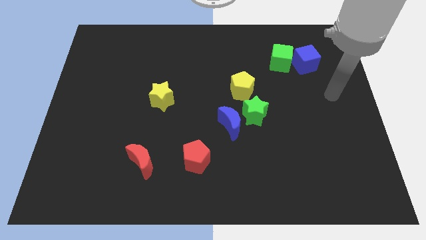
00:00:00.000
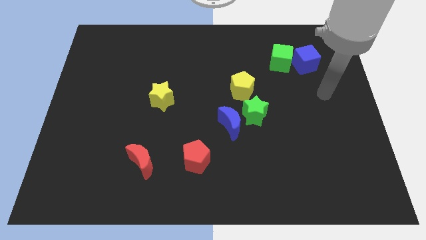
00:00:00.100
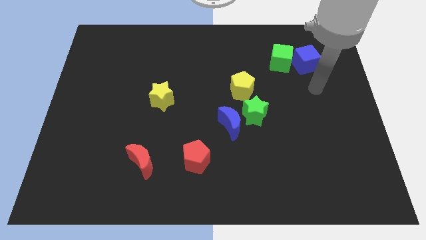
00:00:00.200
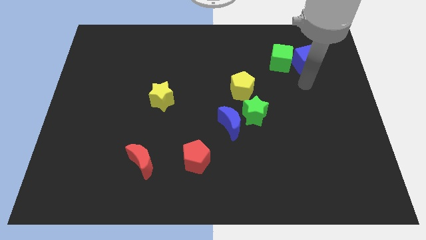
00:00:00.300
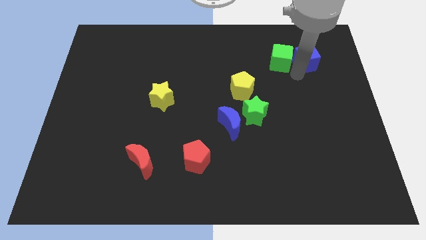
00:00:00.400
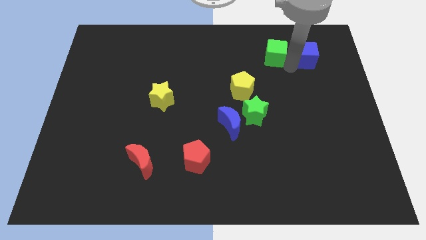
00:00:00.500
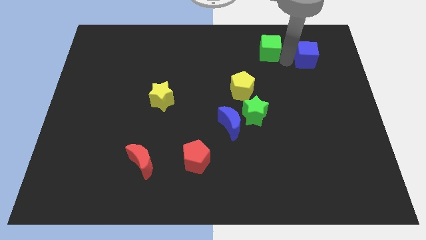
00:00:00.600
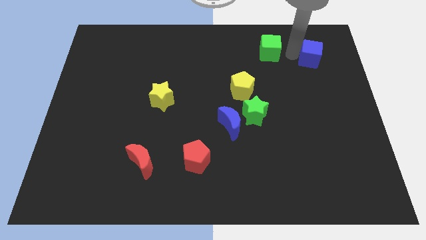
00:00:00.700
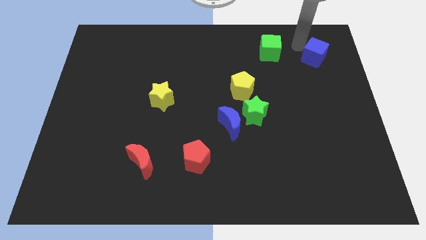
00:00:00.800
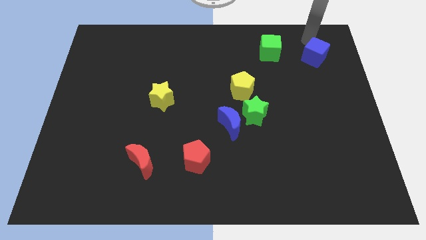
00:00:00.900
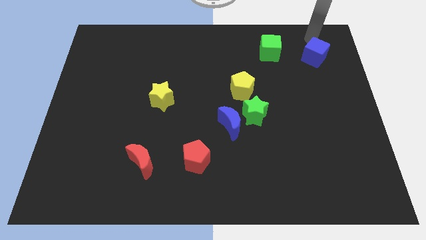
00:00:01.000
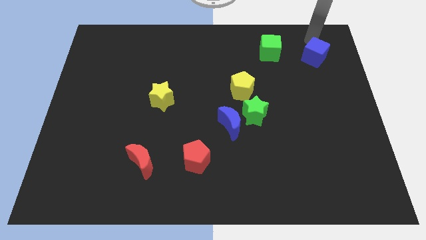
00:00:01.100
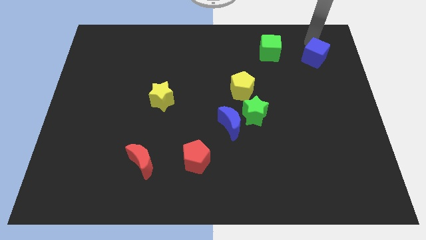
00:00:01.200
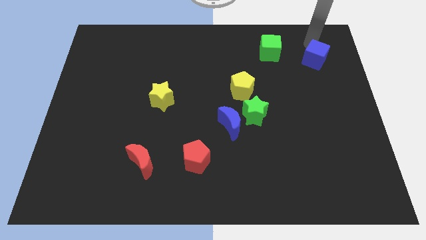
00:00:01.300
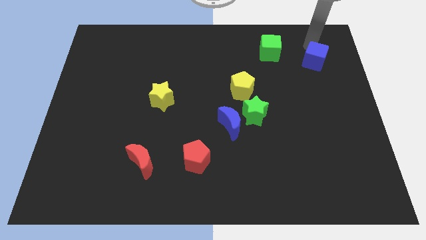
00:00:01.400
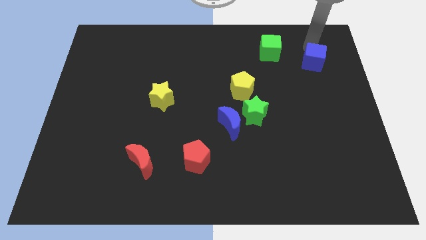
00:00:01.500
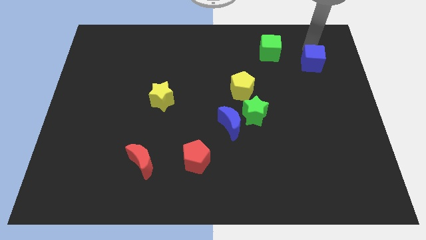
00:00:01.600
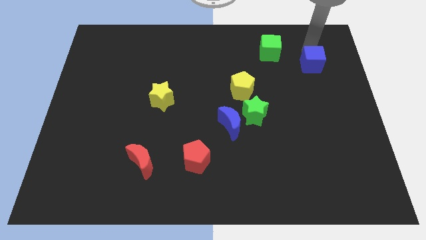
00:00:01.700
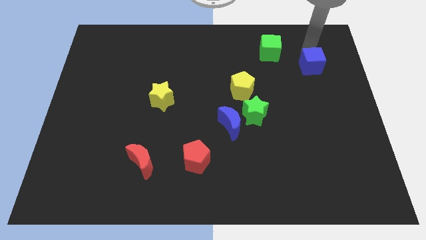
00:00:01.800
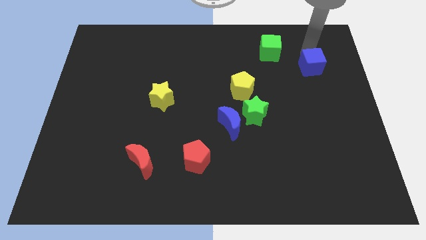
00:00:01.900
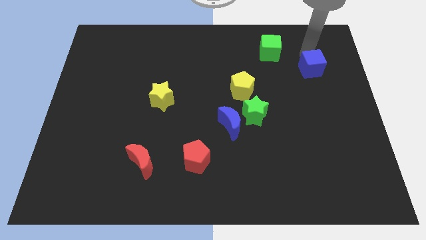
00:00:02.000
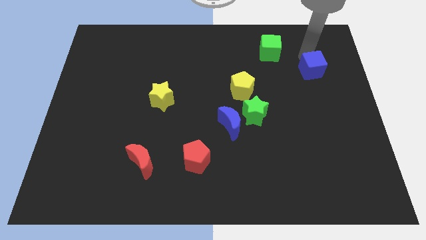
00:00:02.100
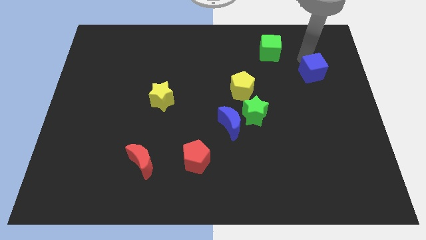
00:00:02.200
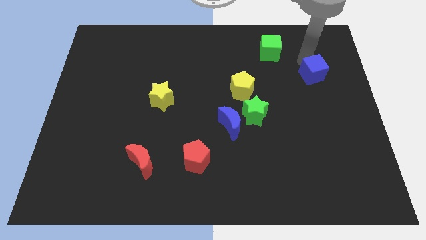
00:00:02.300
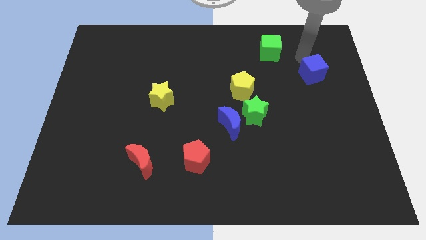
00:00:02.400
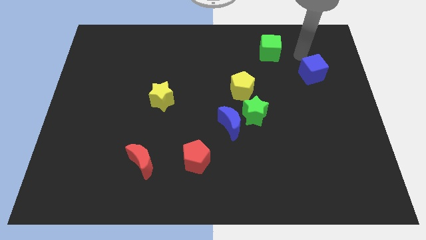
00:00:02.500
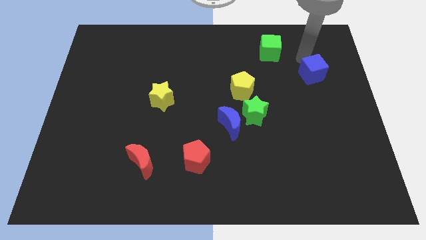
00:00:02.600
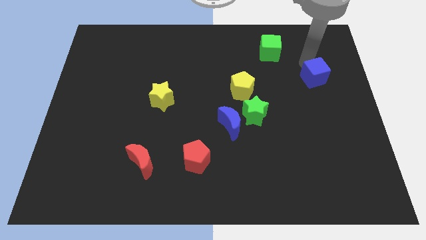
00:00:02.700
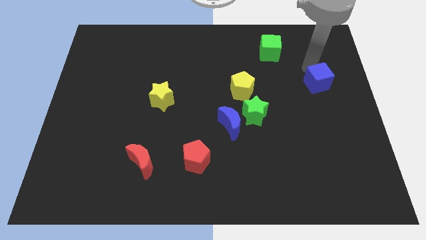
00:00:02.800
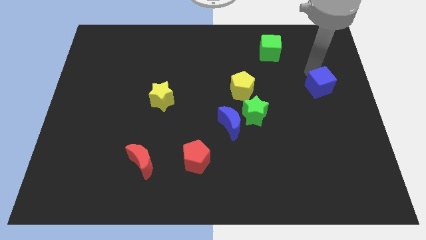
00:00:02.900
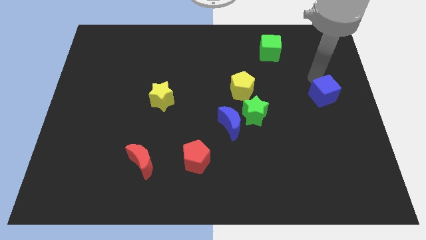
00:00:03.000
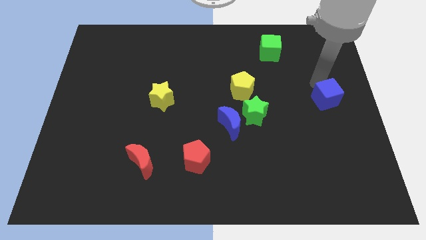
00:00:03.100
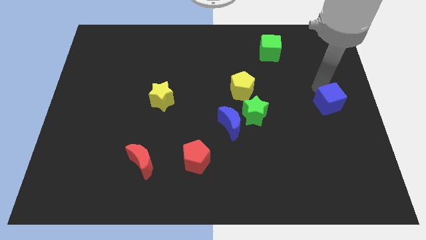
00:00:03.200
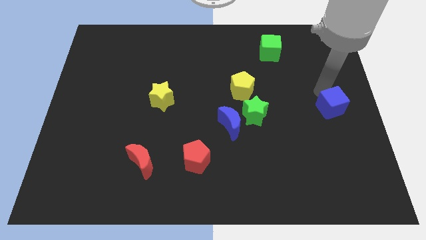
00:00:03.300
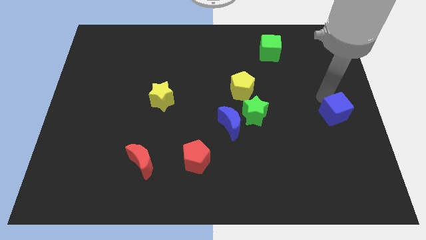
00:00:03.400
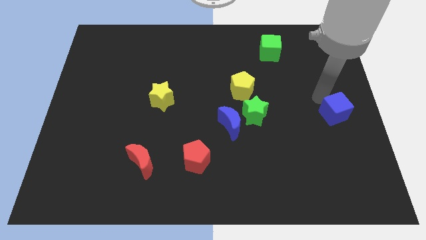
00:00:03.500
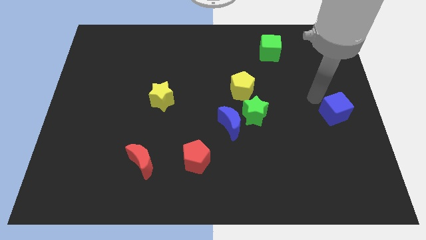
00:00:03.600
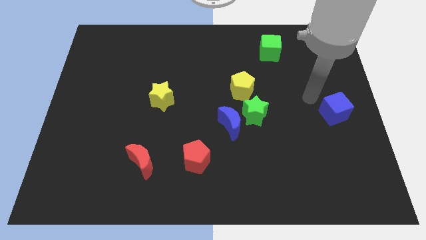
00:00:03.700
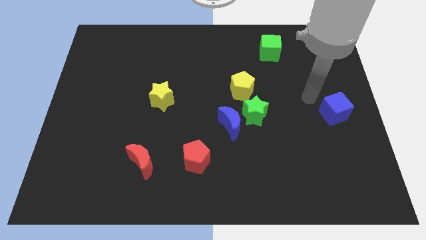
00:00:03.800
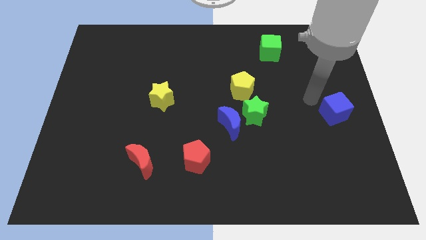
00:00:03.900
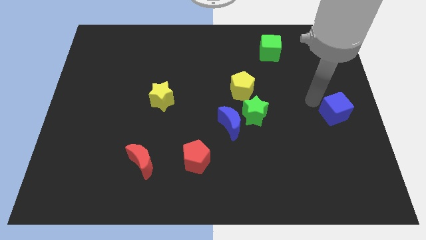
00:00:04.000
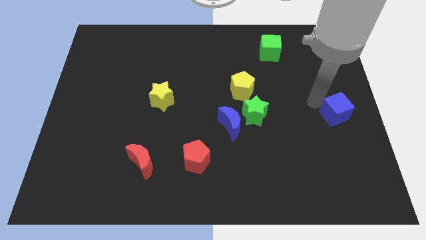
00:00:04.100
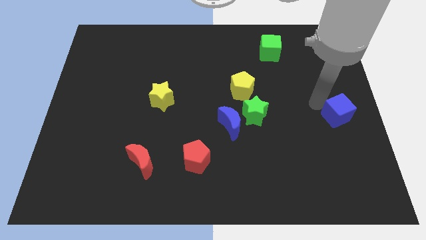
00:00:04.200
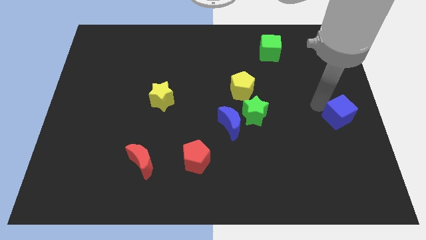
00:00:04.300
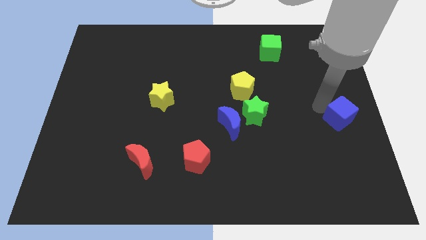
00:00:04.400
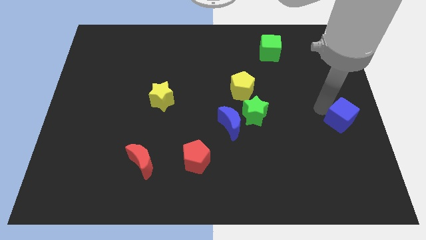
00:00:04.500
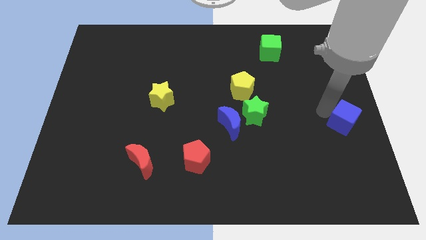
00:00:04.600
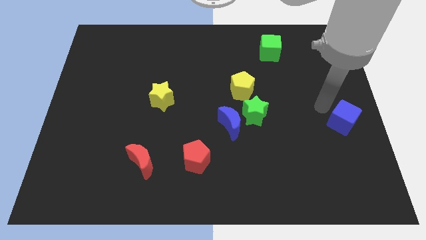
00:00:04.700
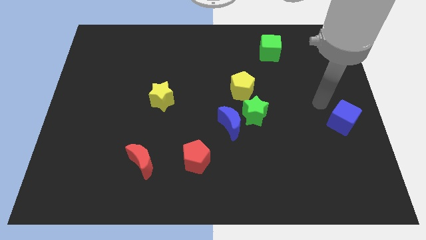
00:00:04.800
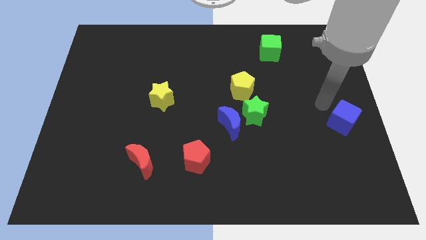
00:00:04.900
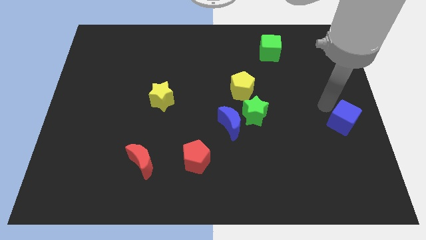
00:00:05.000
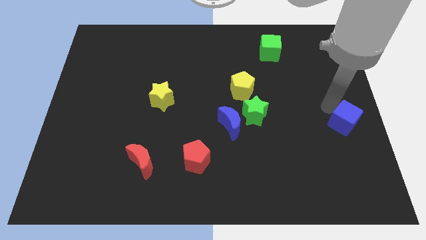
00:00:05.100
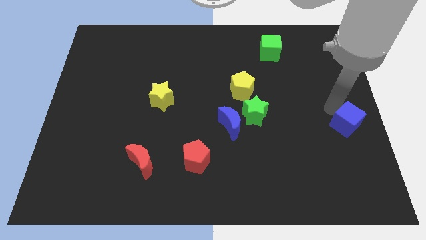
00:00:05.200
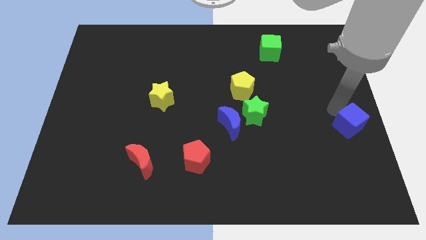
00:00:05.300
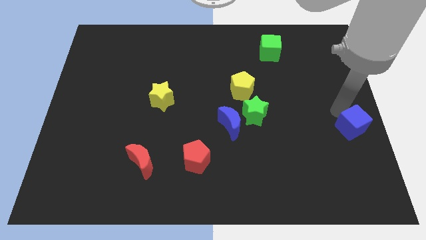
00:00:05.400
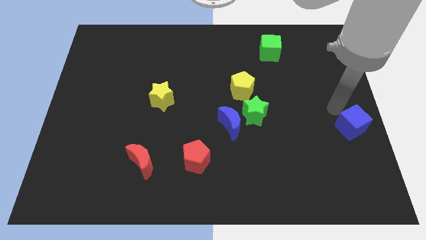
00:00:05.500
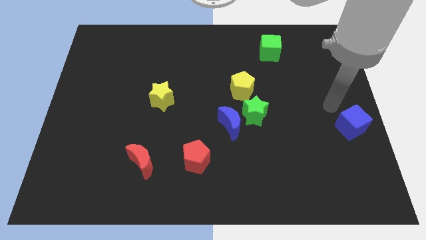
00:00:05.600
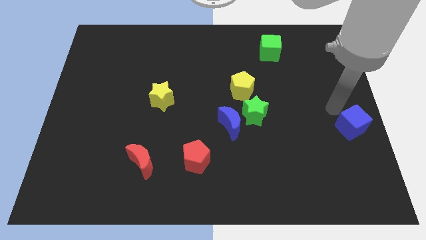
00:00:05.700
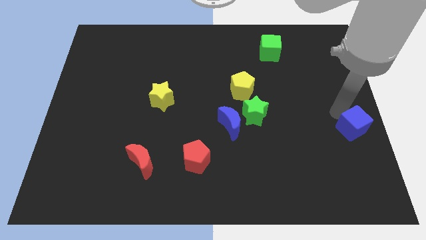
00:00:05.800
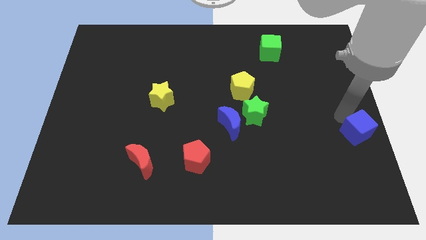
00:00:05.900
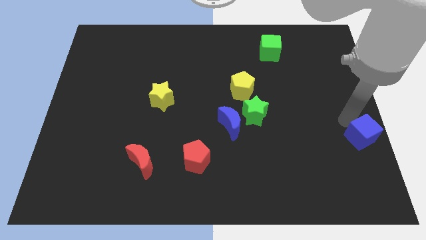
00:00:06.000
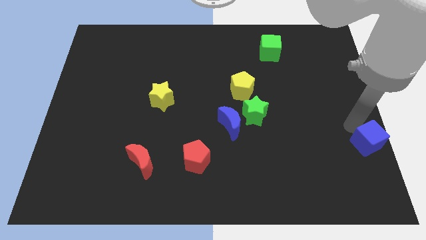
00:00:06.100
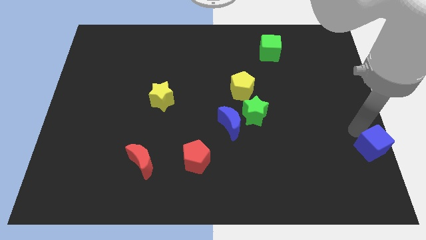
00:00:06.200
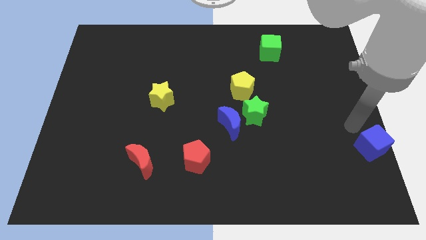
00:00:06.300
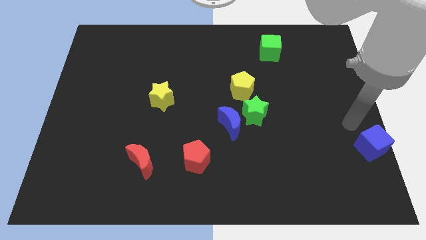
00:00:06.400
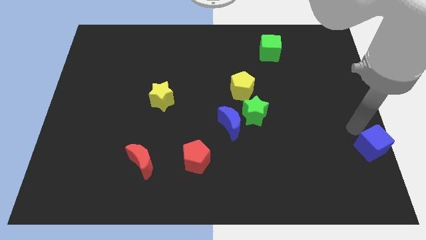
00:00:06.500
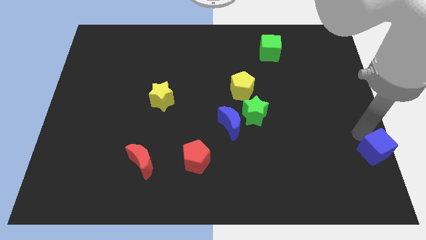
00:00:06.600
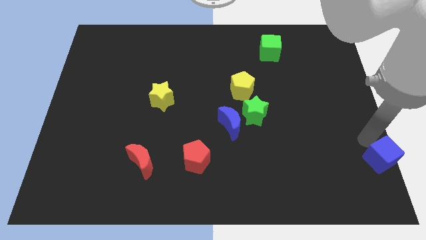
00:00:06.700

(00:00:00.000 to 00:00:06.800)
put the blue cube to the bottom right corner
